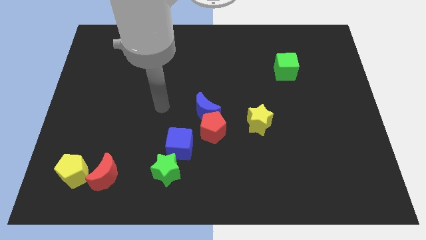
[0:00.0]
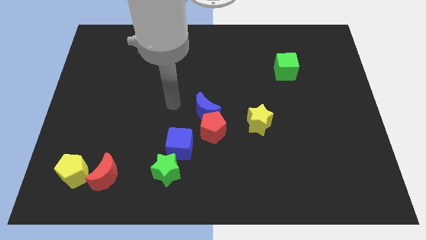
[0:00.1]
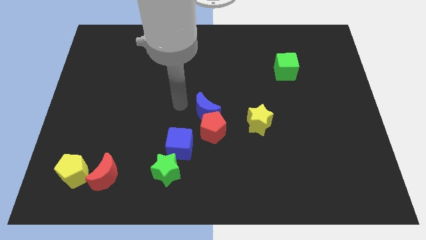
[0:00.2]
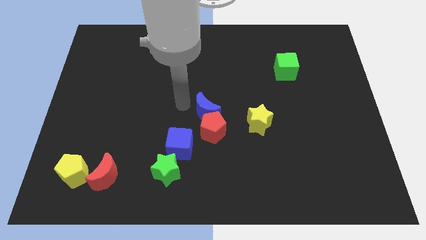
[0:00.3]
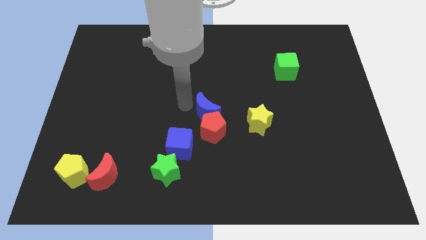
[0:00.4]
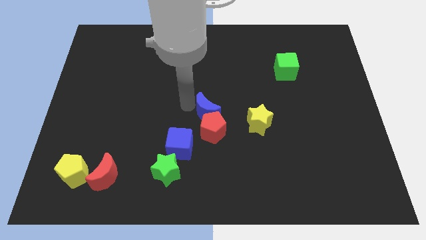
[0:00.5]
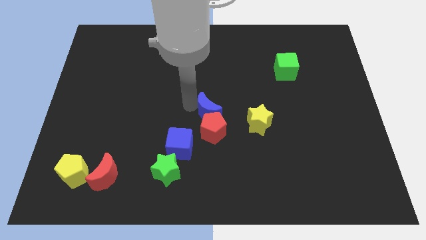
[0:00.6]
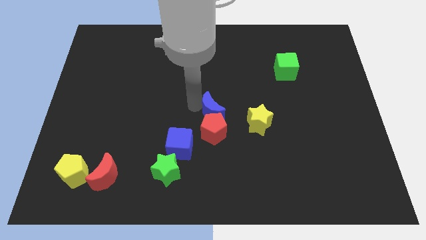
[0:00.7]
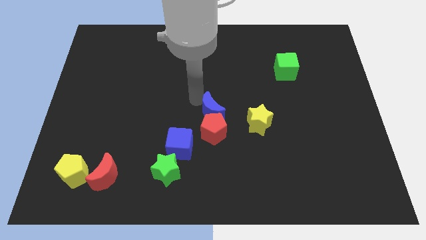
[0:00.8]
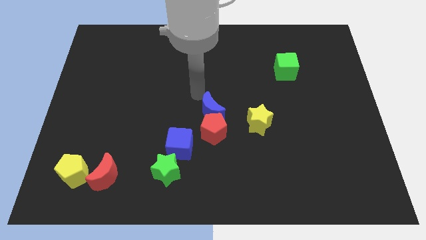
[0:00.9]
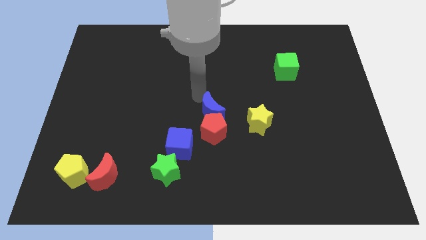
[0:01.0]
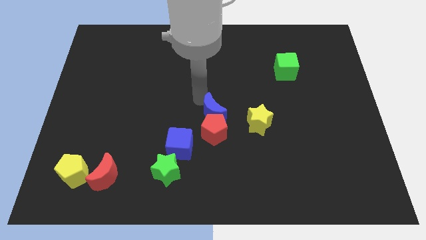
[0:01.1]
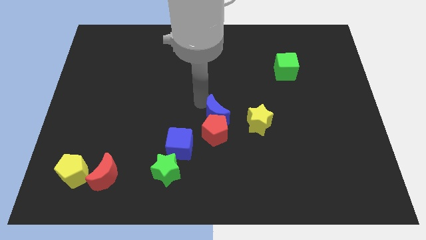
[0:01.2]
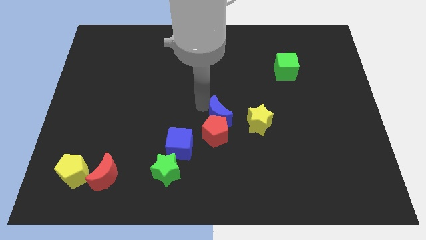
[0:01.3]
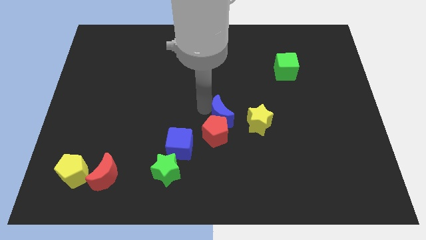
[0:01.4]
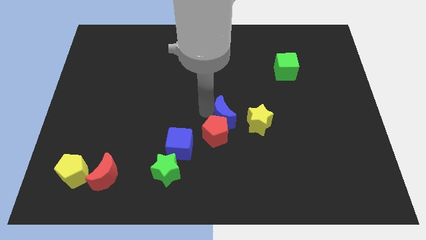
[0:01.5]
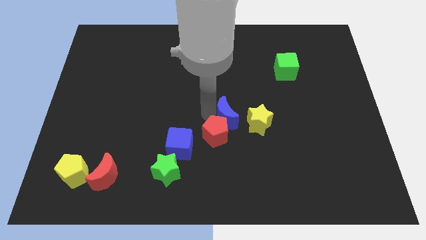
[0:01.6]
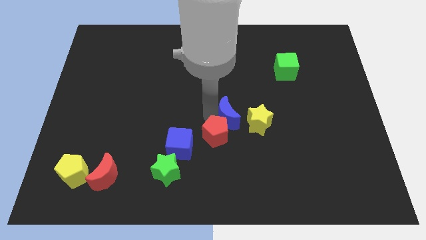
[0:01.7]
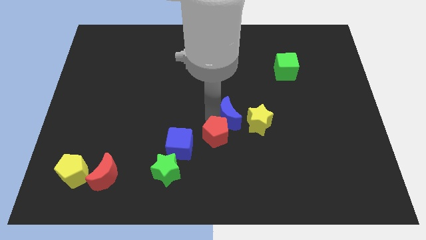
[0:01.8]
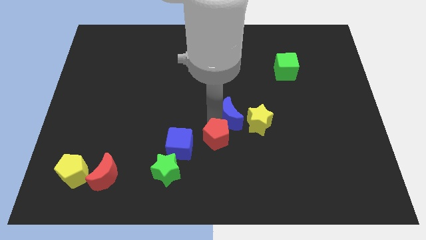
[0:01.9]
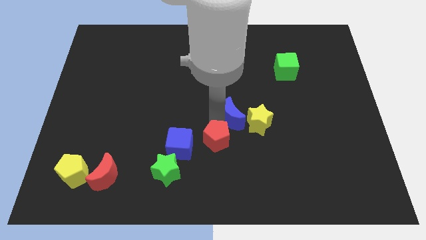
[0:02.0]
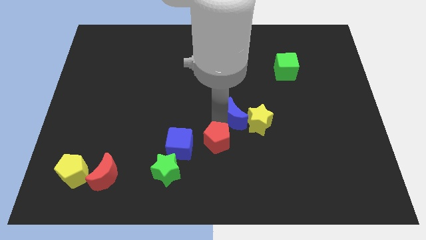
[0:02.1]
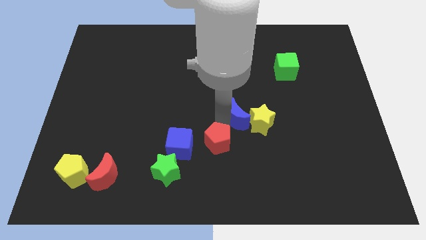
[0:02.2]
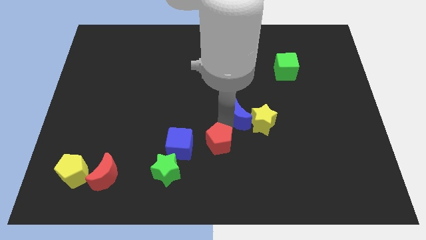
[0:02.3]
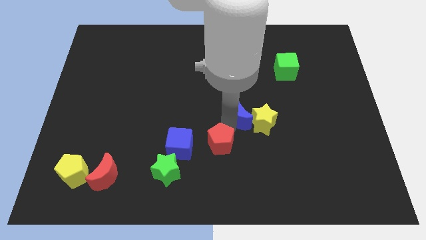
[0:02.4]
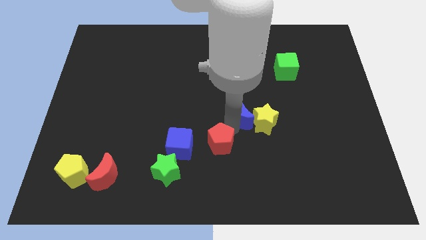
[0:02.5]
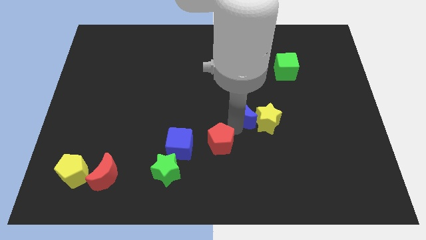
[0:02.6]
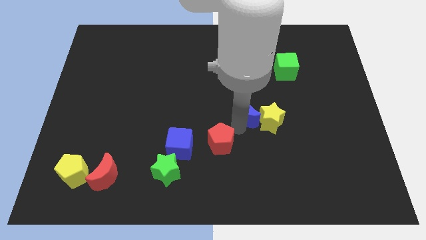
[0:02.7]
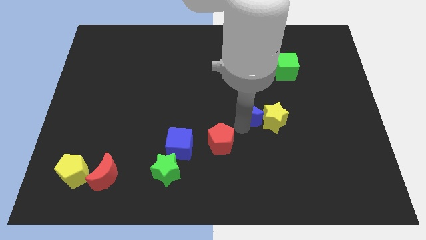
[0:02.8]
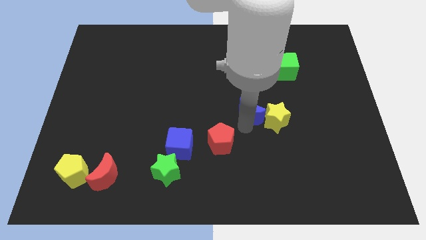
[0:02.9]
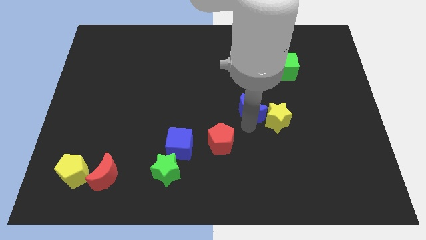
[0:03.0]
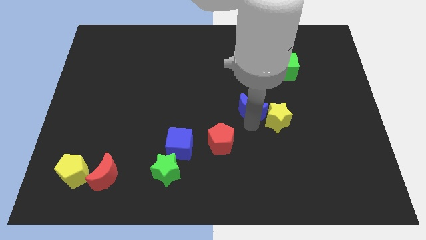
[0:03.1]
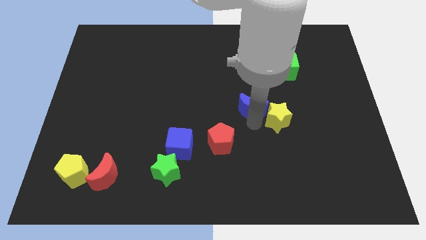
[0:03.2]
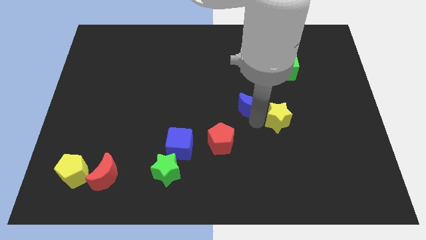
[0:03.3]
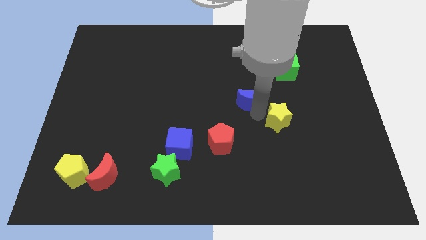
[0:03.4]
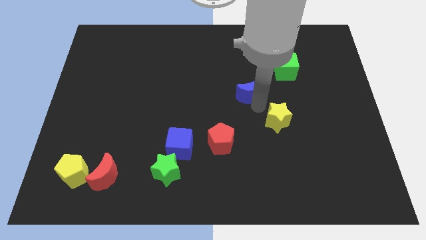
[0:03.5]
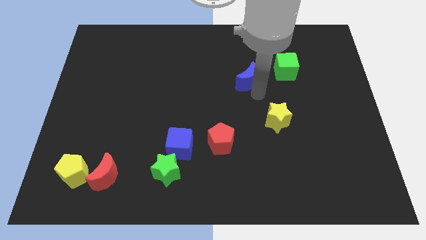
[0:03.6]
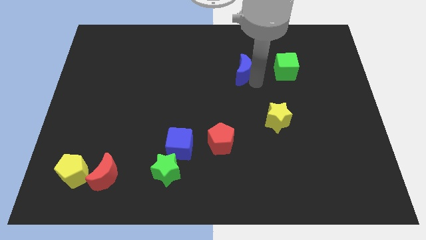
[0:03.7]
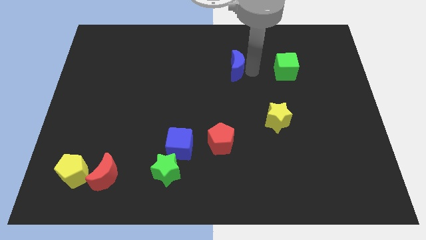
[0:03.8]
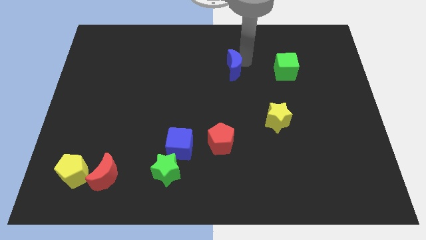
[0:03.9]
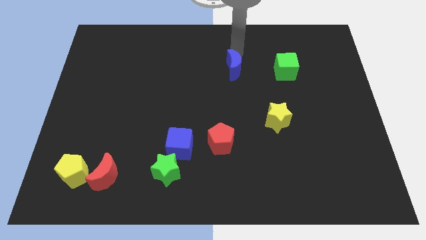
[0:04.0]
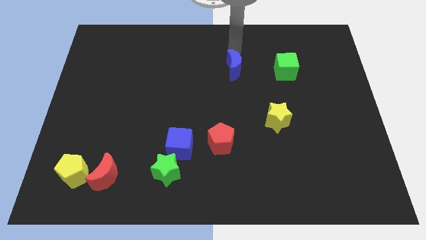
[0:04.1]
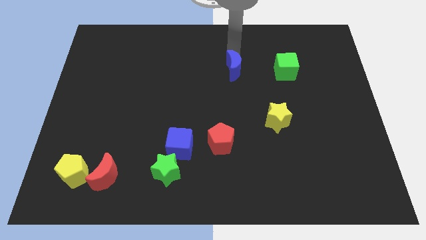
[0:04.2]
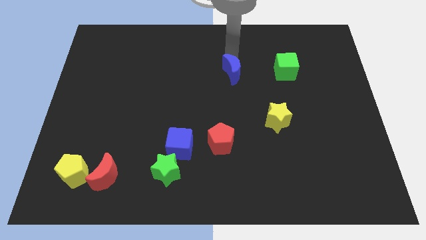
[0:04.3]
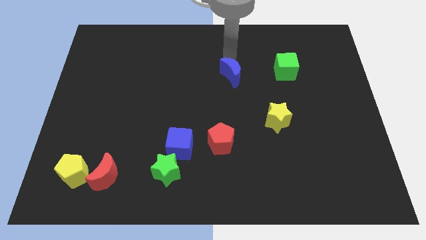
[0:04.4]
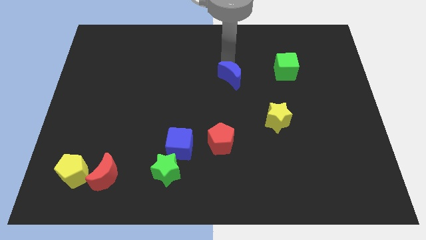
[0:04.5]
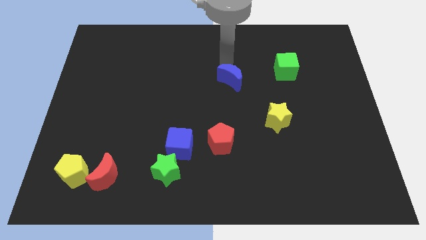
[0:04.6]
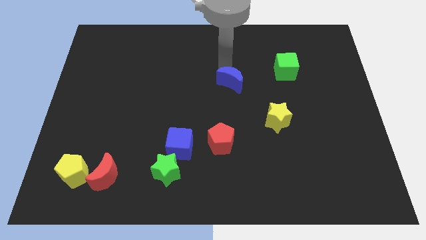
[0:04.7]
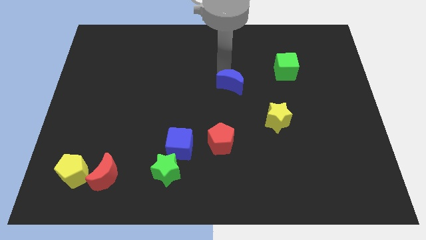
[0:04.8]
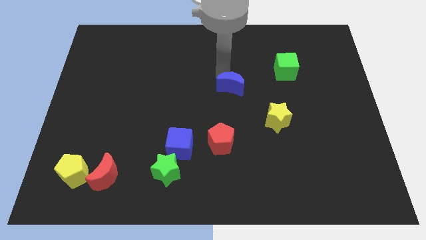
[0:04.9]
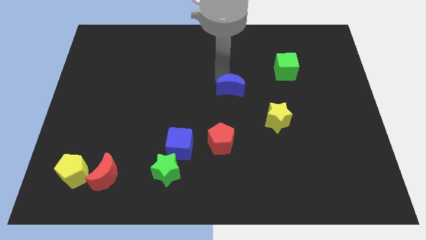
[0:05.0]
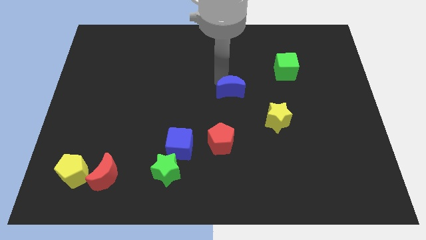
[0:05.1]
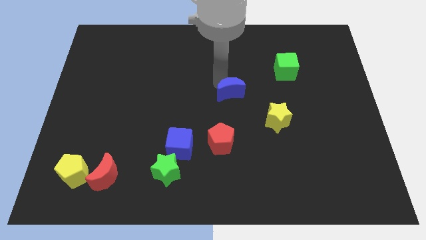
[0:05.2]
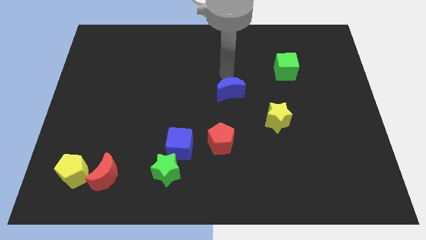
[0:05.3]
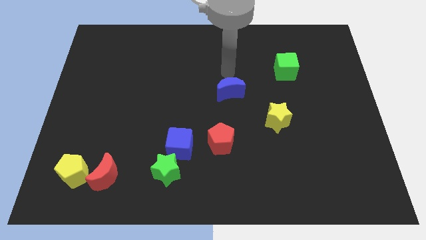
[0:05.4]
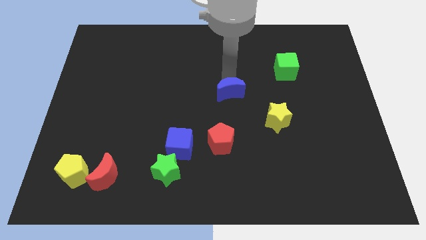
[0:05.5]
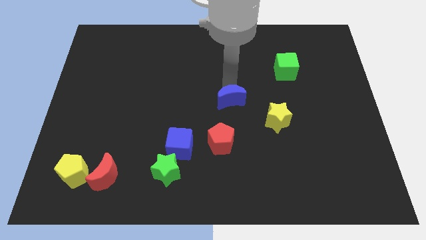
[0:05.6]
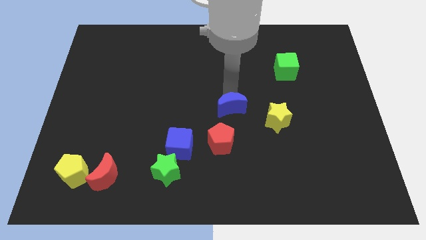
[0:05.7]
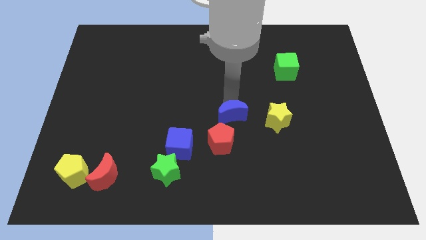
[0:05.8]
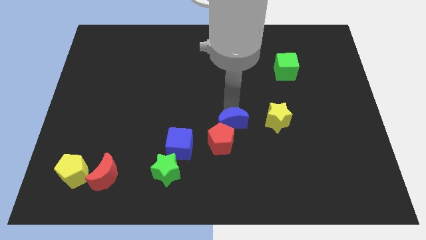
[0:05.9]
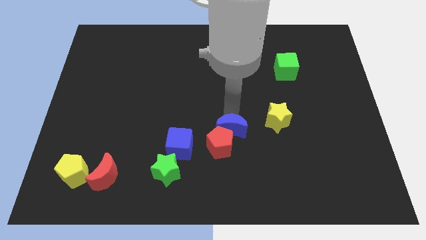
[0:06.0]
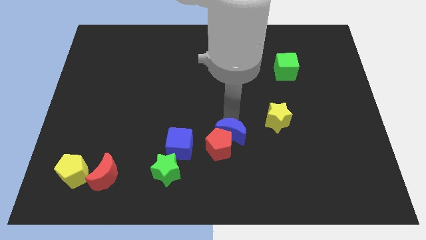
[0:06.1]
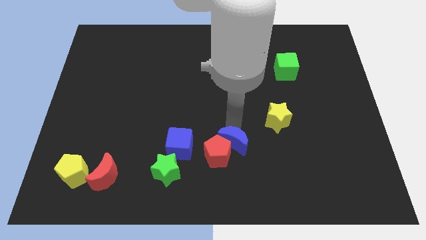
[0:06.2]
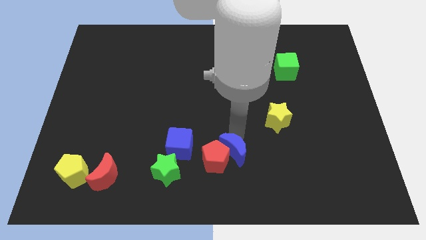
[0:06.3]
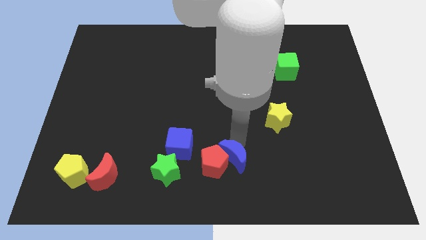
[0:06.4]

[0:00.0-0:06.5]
put the blue moon to the right side of the green star
